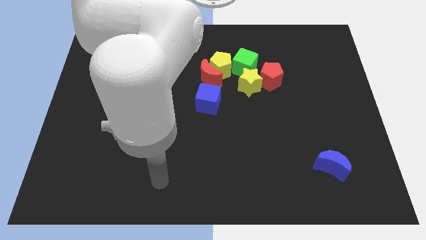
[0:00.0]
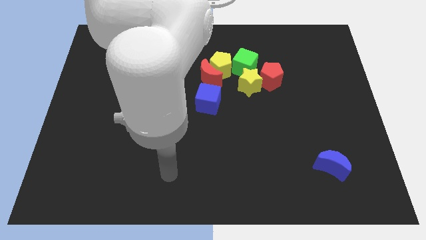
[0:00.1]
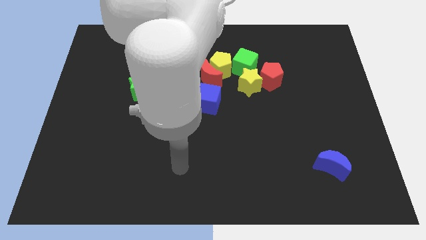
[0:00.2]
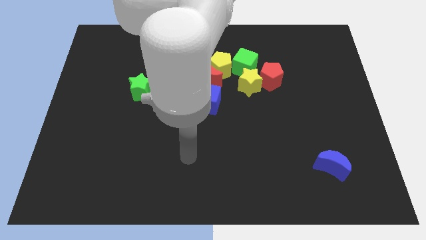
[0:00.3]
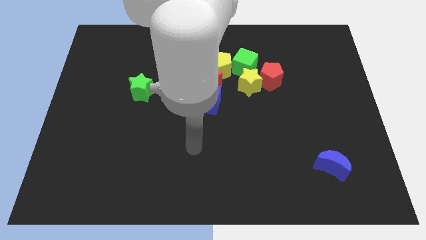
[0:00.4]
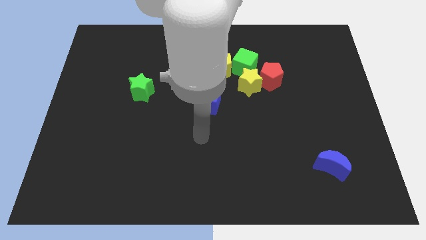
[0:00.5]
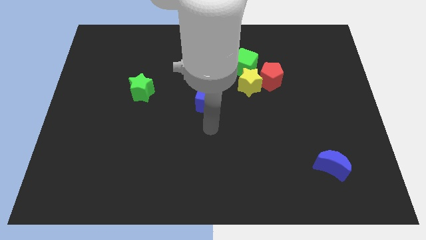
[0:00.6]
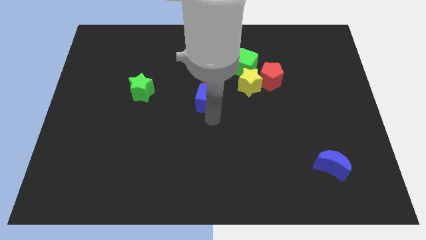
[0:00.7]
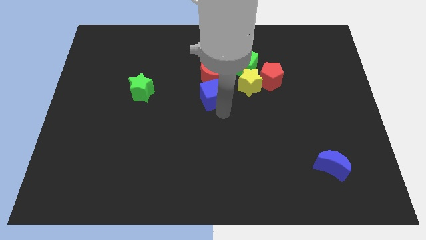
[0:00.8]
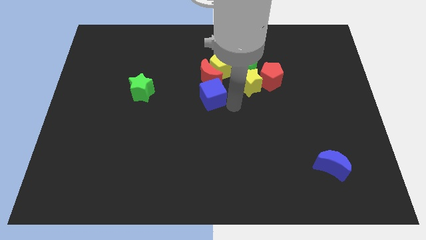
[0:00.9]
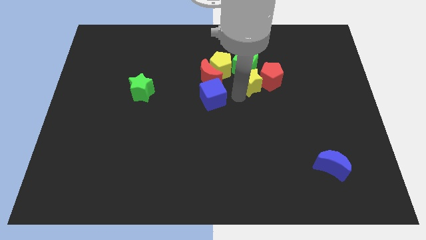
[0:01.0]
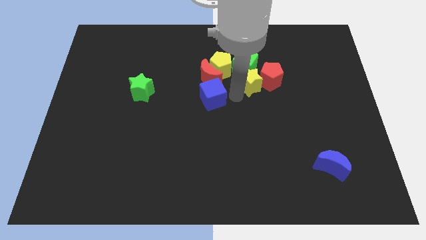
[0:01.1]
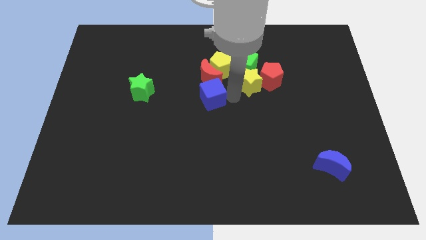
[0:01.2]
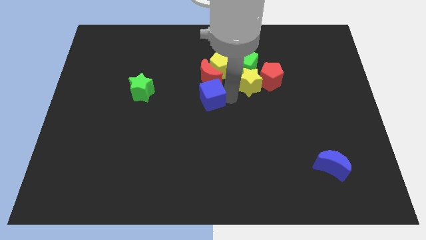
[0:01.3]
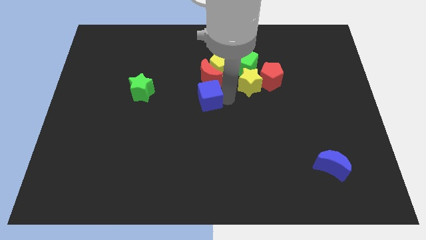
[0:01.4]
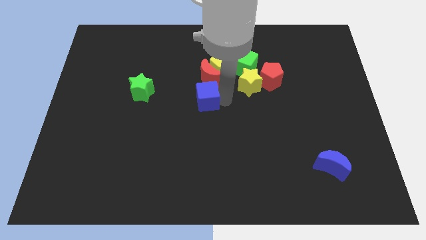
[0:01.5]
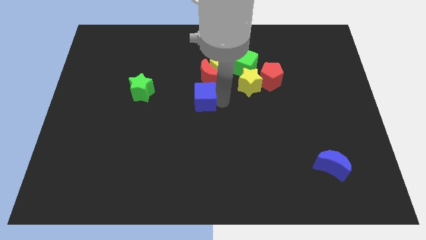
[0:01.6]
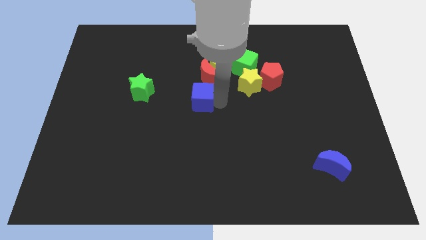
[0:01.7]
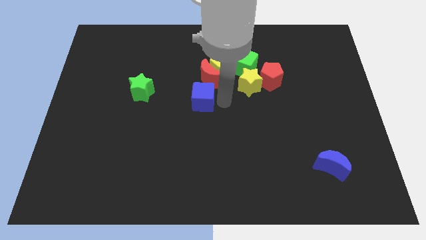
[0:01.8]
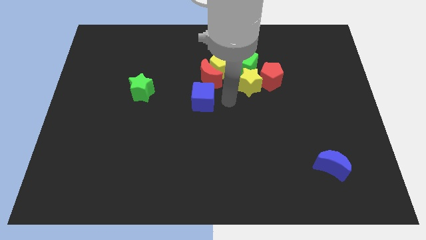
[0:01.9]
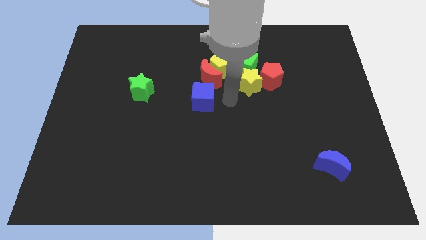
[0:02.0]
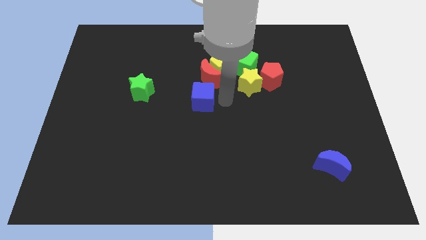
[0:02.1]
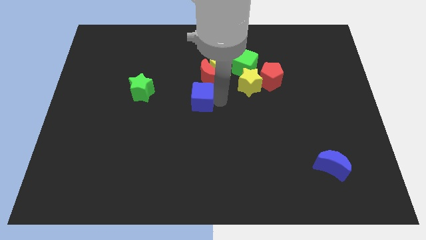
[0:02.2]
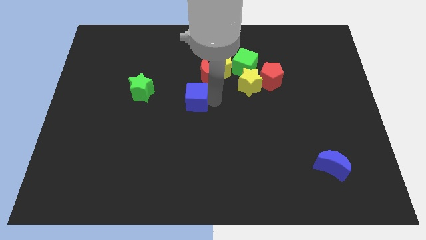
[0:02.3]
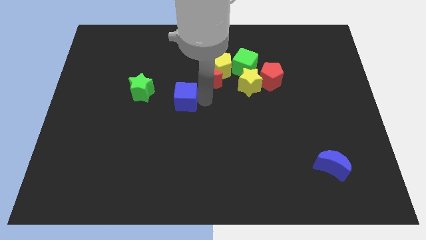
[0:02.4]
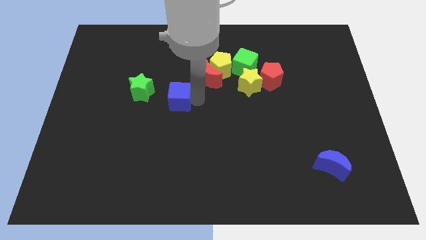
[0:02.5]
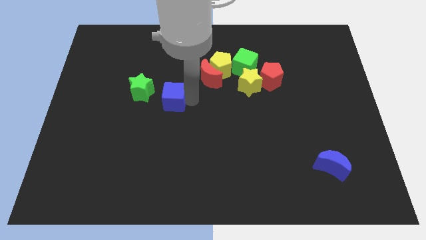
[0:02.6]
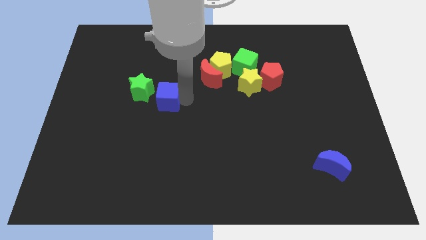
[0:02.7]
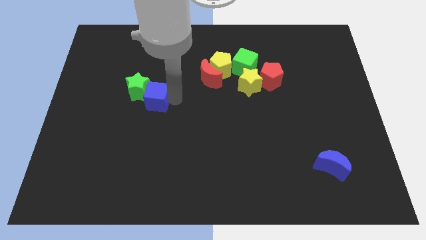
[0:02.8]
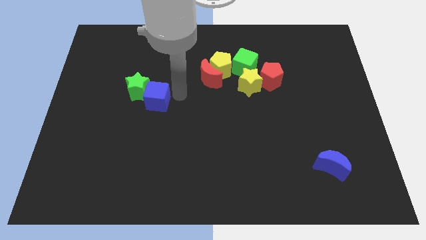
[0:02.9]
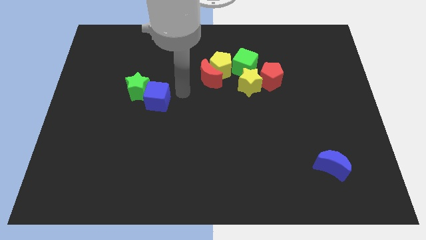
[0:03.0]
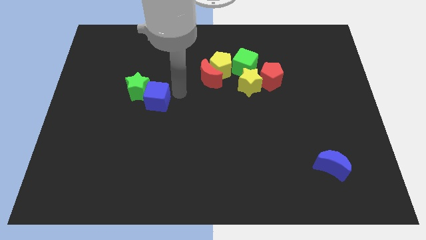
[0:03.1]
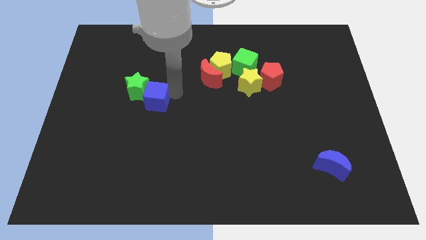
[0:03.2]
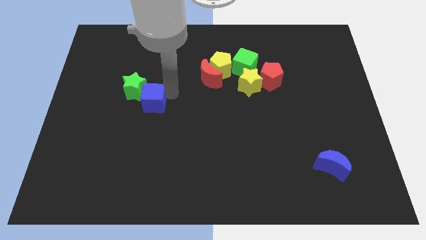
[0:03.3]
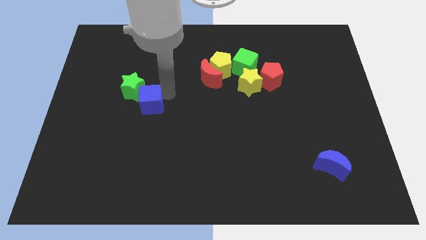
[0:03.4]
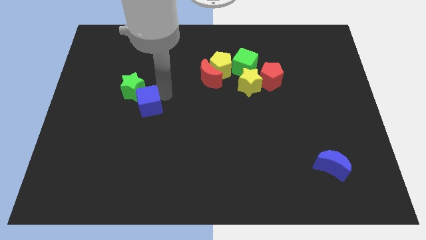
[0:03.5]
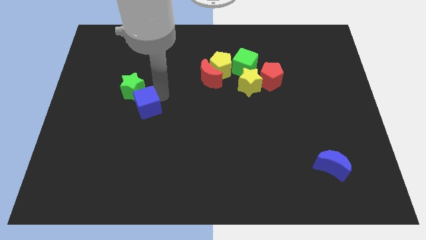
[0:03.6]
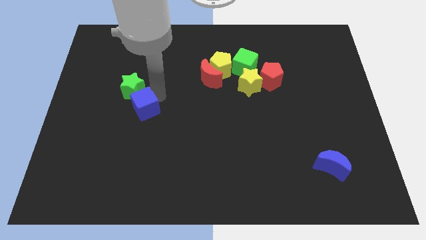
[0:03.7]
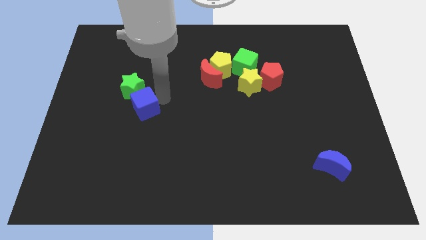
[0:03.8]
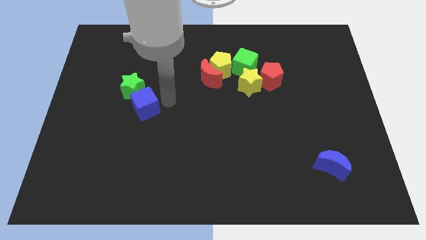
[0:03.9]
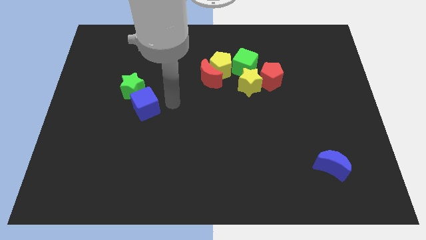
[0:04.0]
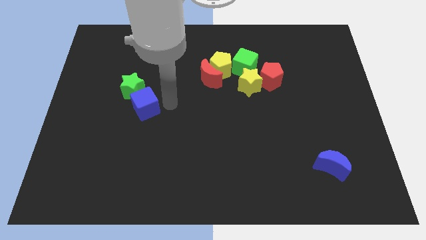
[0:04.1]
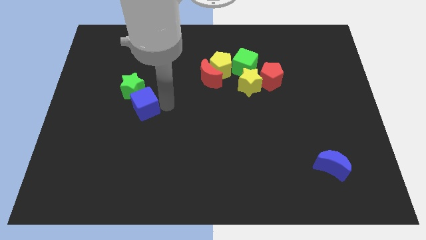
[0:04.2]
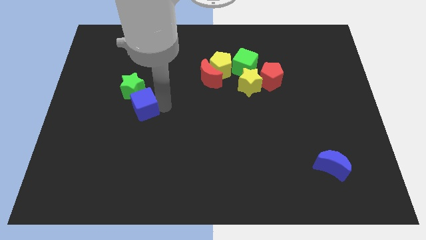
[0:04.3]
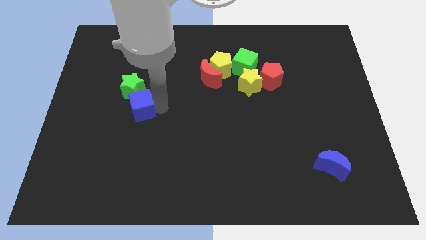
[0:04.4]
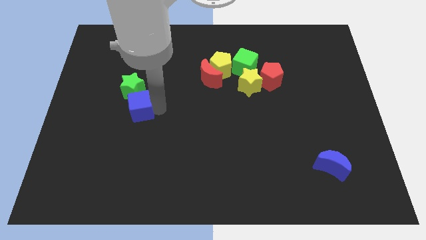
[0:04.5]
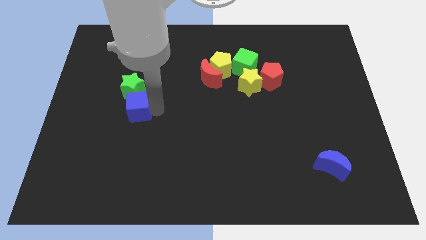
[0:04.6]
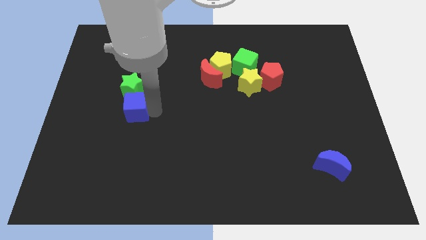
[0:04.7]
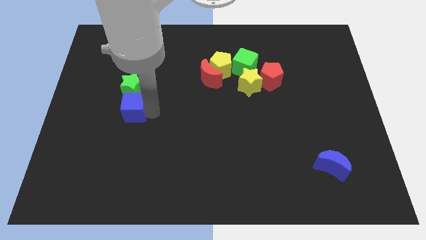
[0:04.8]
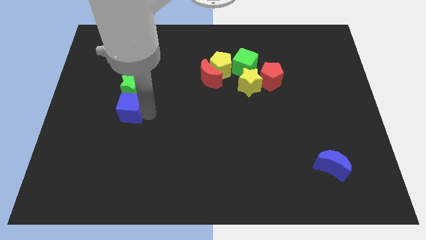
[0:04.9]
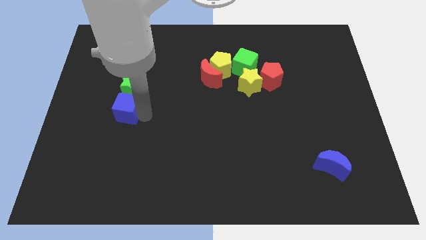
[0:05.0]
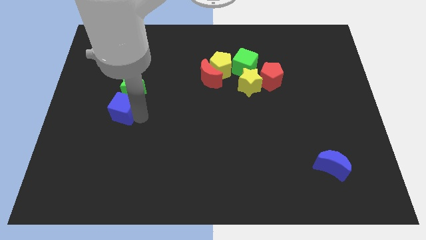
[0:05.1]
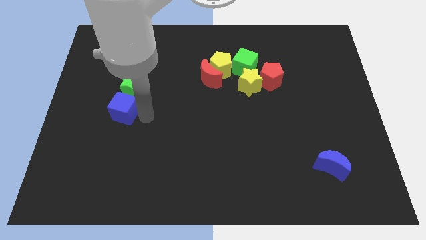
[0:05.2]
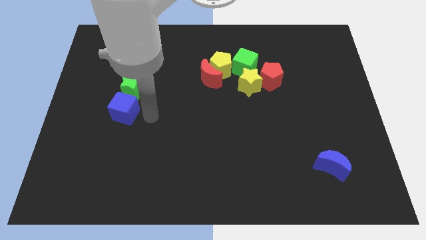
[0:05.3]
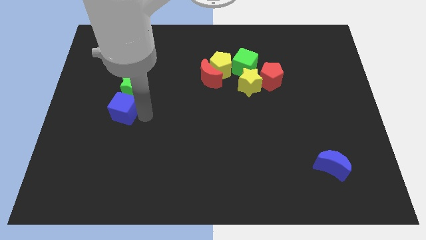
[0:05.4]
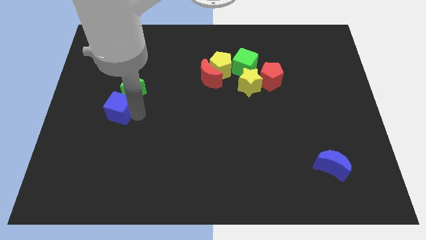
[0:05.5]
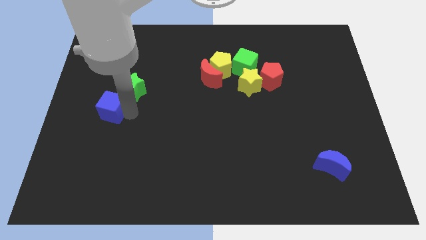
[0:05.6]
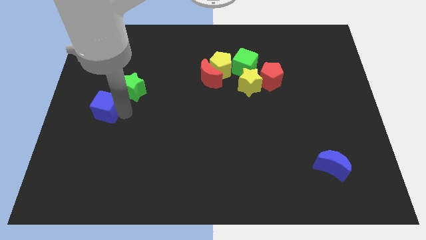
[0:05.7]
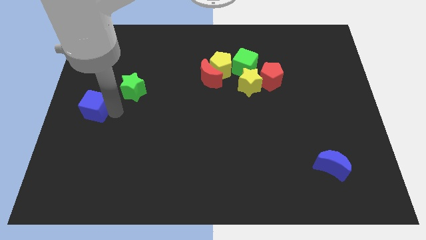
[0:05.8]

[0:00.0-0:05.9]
move the blue cube to the left side of the board
